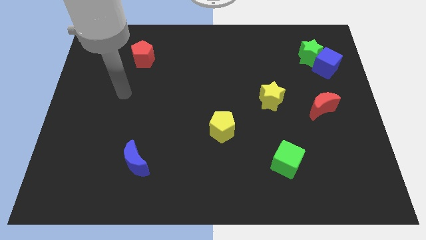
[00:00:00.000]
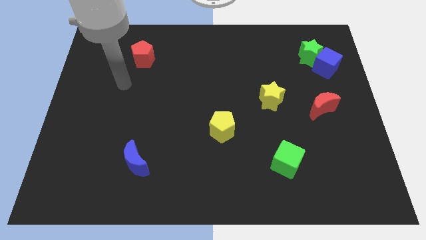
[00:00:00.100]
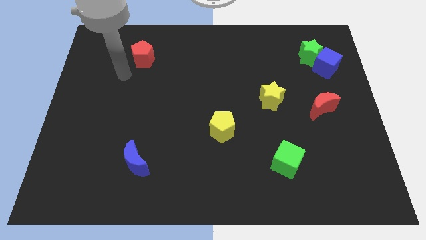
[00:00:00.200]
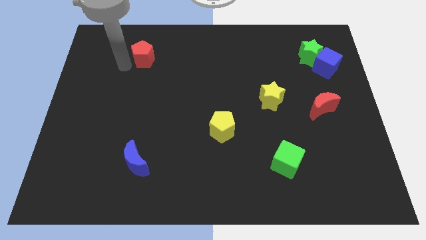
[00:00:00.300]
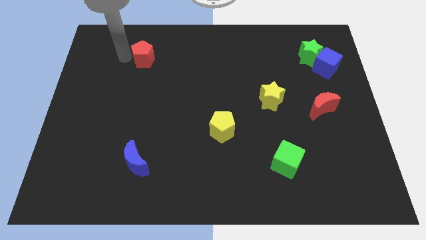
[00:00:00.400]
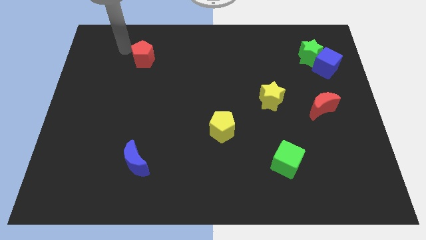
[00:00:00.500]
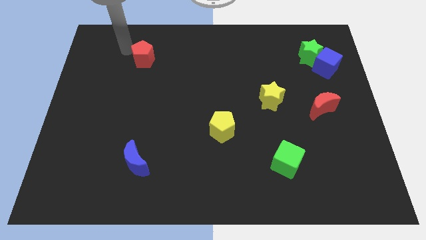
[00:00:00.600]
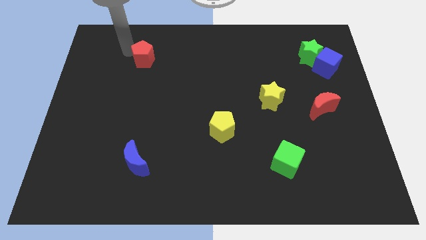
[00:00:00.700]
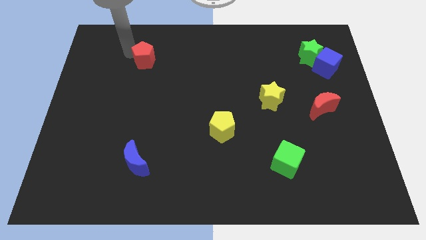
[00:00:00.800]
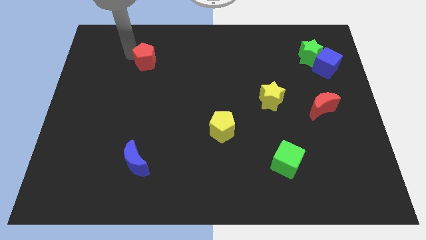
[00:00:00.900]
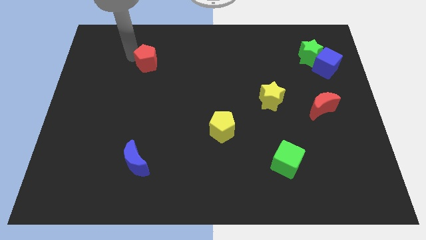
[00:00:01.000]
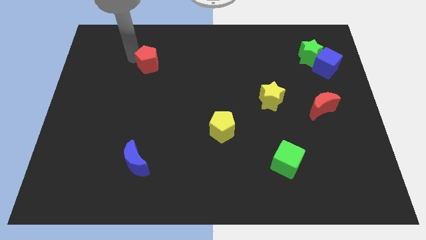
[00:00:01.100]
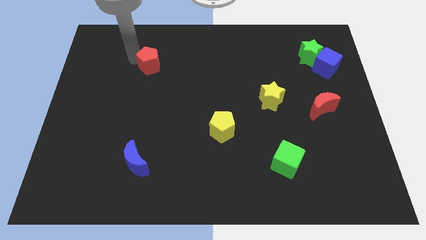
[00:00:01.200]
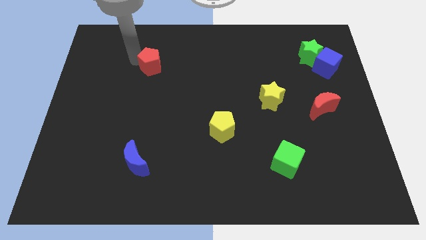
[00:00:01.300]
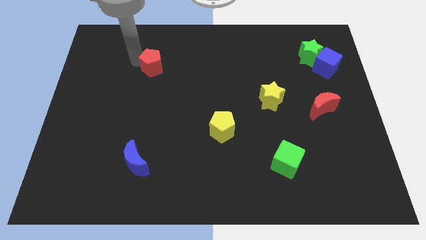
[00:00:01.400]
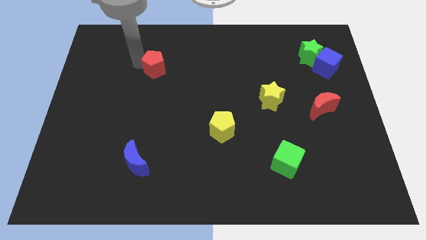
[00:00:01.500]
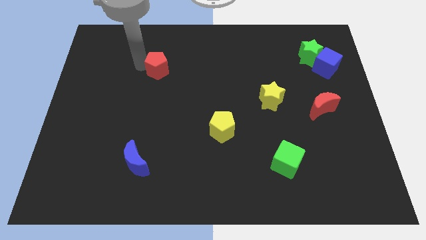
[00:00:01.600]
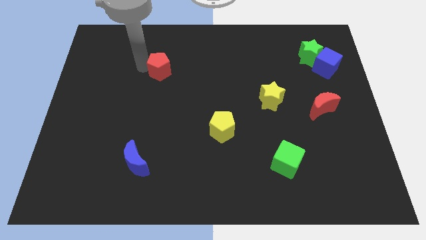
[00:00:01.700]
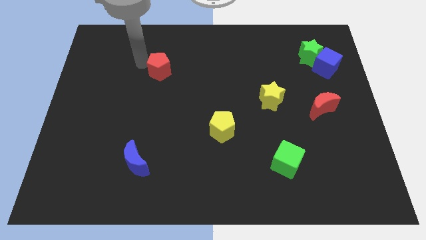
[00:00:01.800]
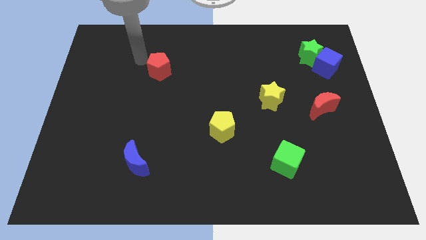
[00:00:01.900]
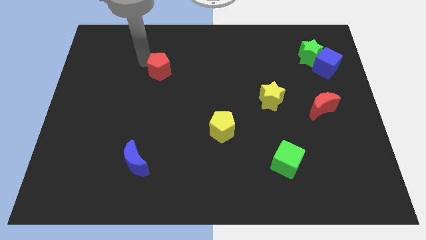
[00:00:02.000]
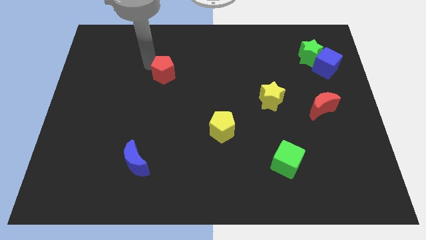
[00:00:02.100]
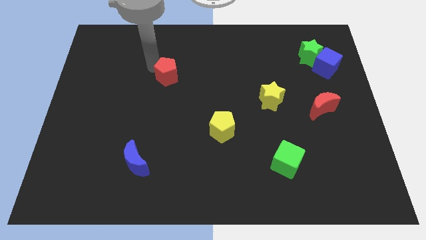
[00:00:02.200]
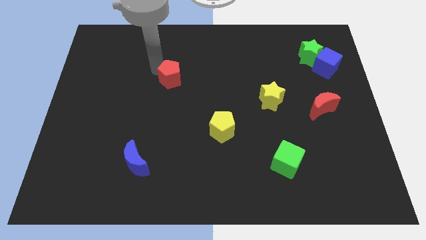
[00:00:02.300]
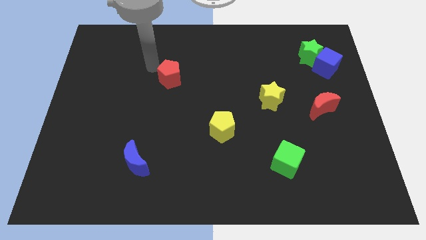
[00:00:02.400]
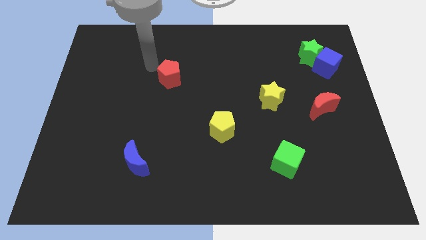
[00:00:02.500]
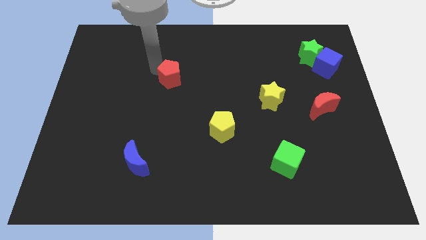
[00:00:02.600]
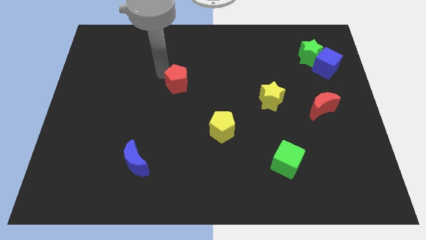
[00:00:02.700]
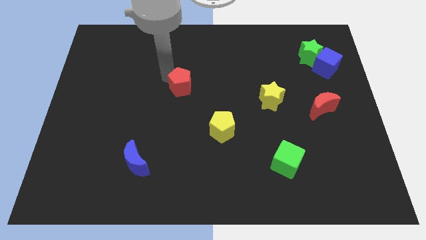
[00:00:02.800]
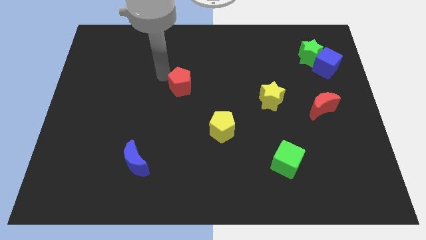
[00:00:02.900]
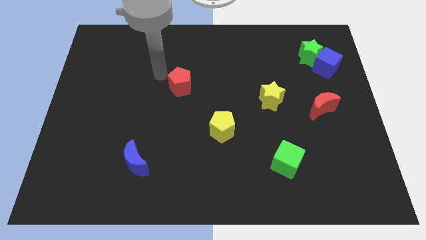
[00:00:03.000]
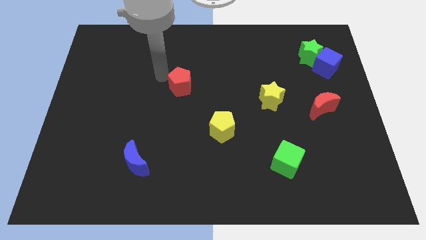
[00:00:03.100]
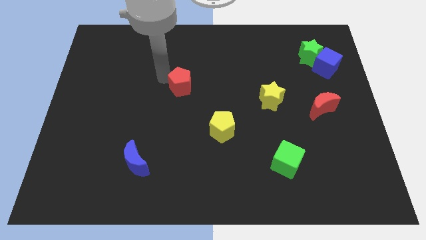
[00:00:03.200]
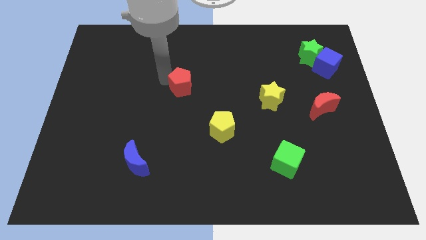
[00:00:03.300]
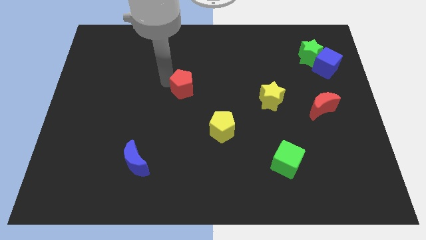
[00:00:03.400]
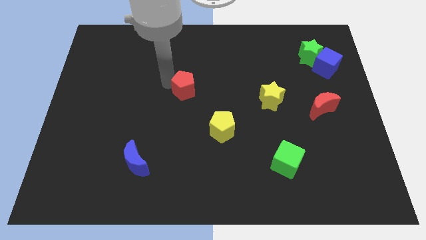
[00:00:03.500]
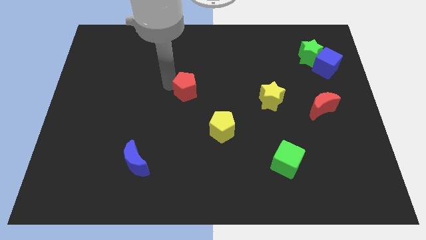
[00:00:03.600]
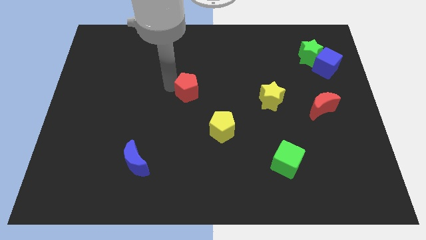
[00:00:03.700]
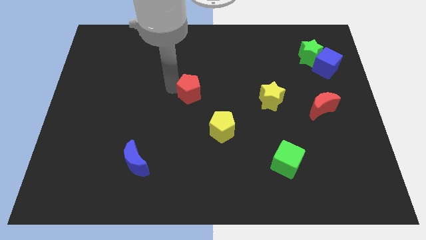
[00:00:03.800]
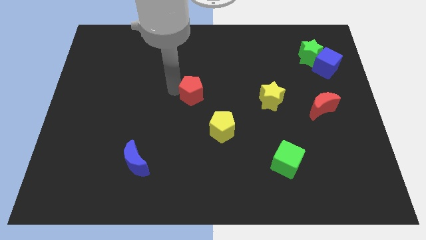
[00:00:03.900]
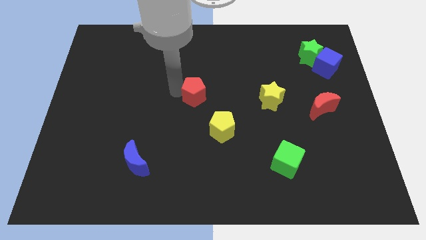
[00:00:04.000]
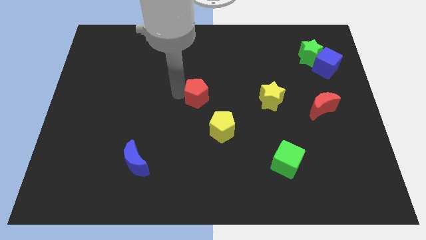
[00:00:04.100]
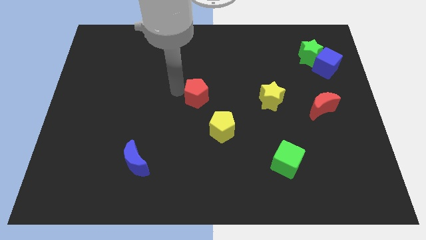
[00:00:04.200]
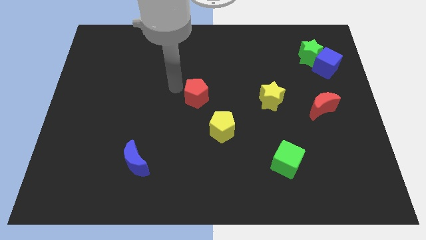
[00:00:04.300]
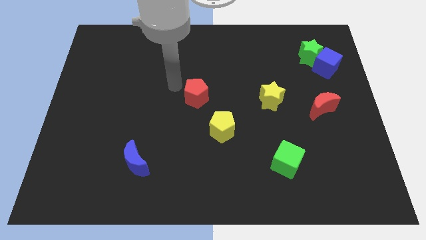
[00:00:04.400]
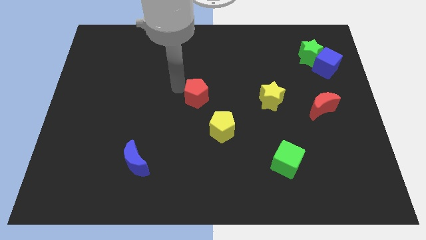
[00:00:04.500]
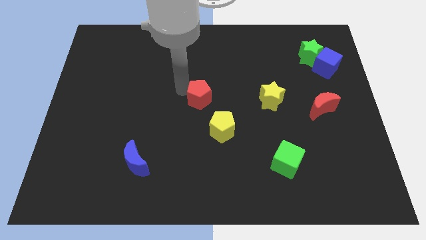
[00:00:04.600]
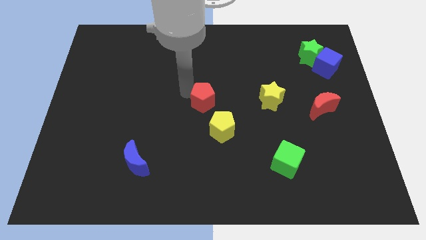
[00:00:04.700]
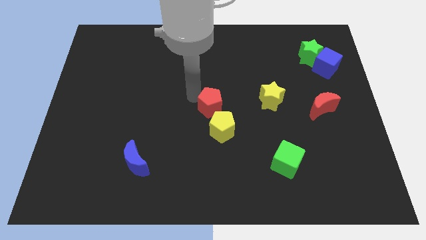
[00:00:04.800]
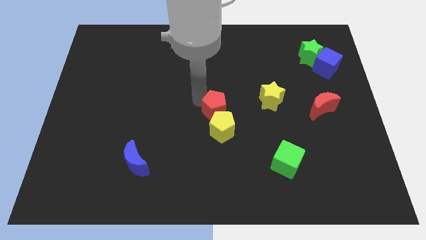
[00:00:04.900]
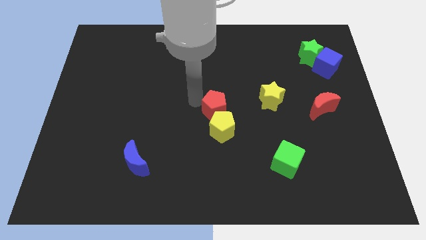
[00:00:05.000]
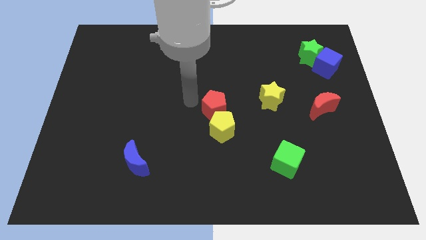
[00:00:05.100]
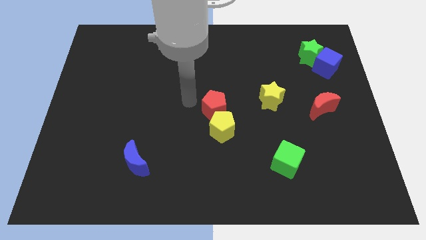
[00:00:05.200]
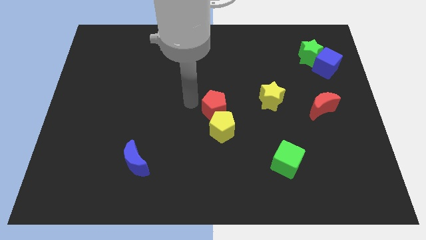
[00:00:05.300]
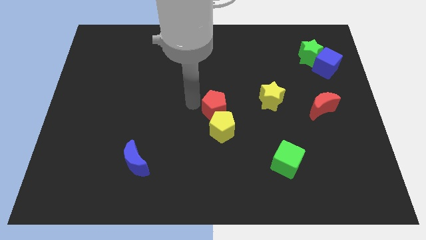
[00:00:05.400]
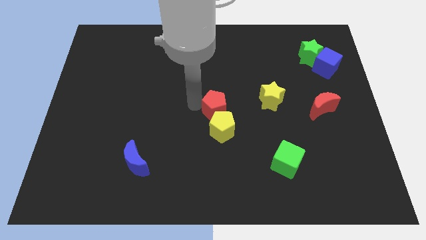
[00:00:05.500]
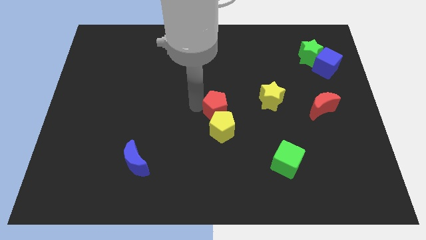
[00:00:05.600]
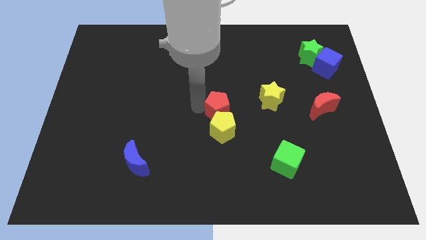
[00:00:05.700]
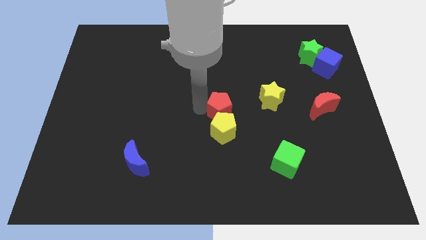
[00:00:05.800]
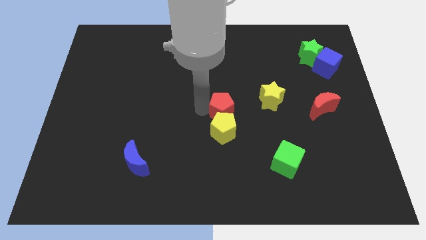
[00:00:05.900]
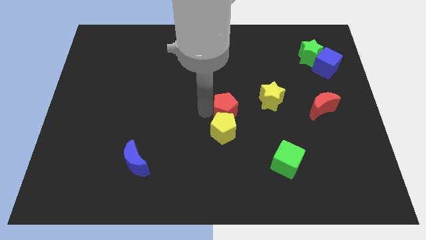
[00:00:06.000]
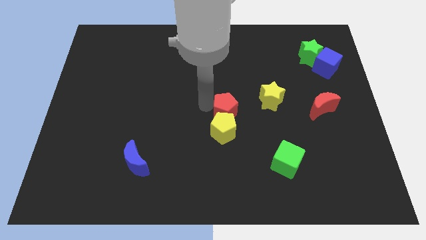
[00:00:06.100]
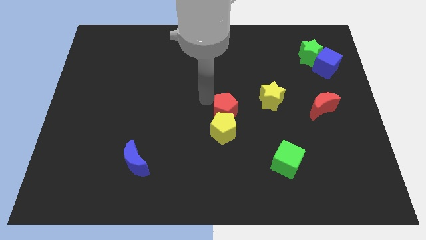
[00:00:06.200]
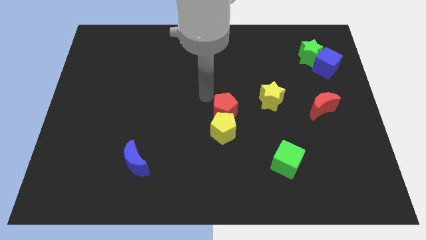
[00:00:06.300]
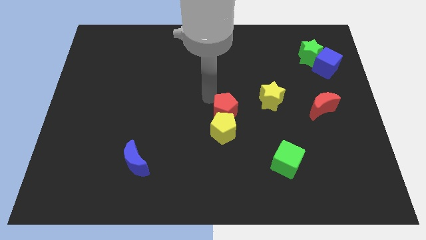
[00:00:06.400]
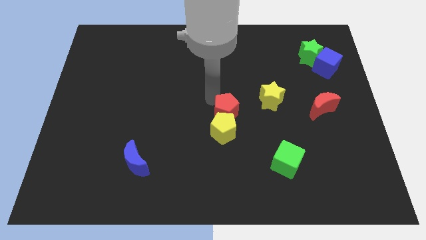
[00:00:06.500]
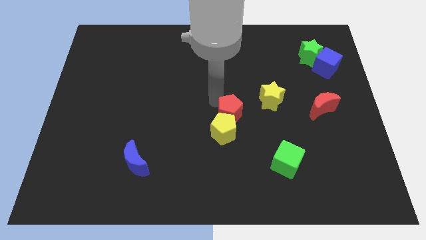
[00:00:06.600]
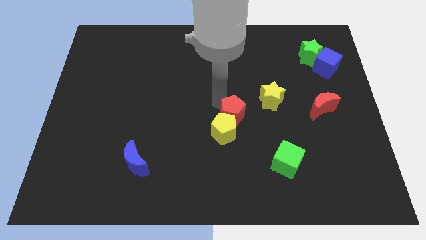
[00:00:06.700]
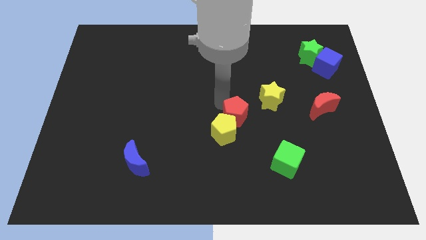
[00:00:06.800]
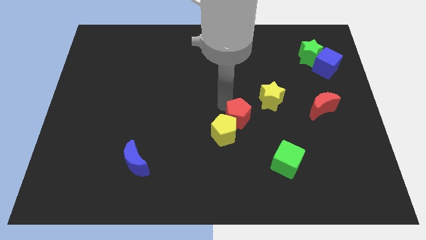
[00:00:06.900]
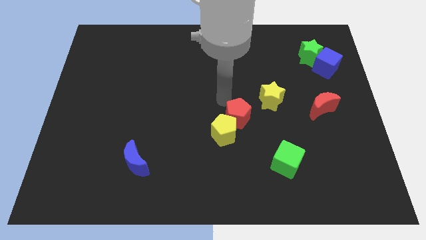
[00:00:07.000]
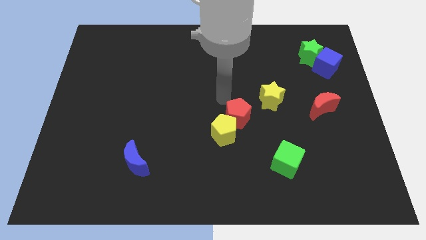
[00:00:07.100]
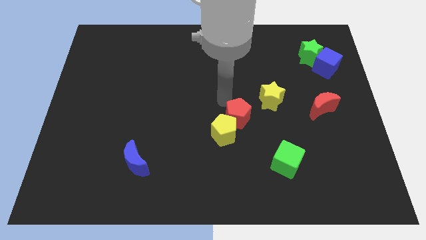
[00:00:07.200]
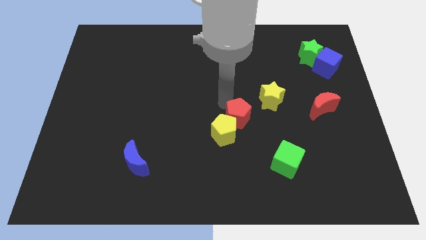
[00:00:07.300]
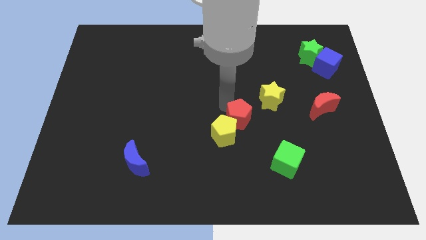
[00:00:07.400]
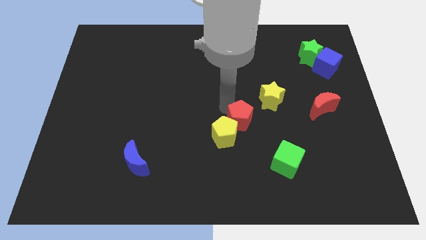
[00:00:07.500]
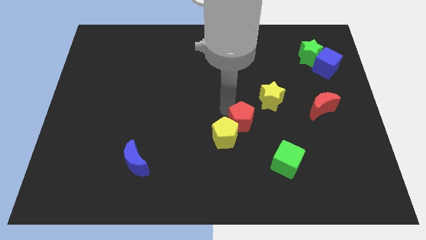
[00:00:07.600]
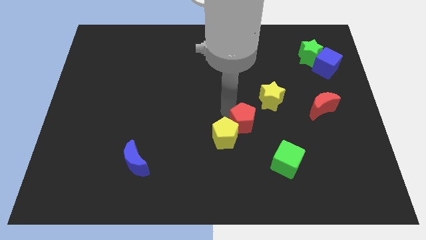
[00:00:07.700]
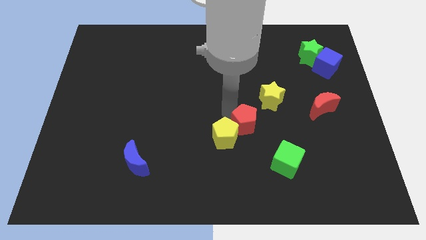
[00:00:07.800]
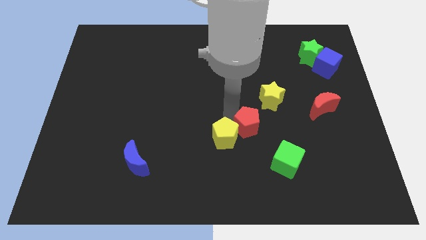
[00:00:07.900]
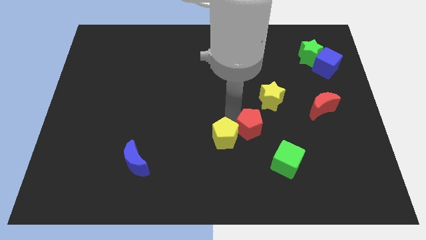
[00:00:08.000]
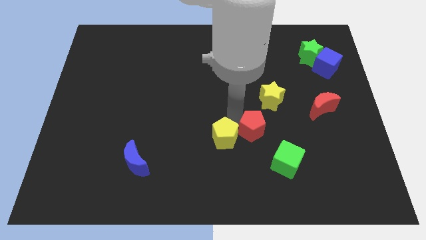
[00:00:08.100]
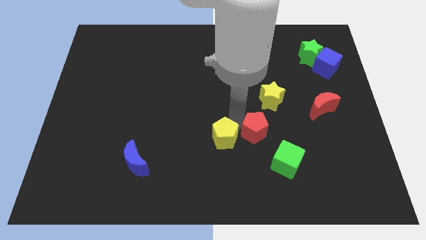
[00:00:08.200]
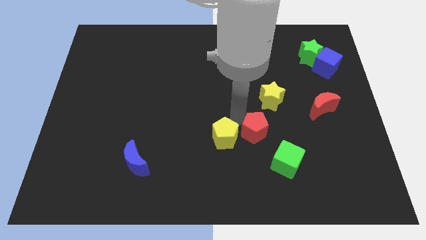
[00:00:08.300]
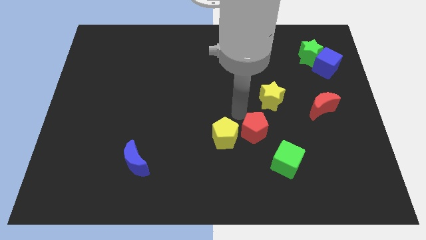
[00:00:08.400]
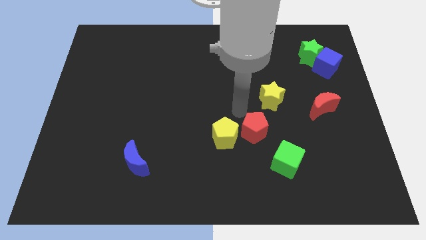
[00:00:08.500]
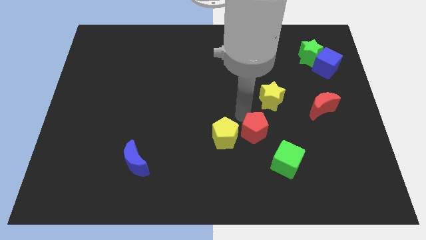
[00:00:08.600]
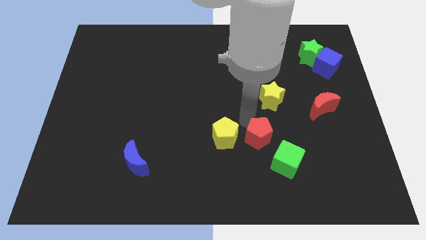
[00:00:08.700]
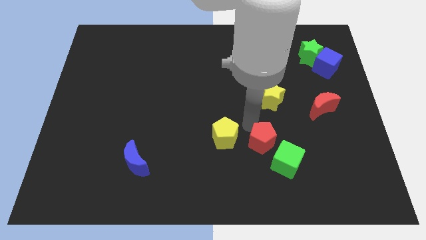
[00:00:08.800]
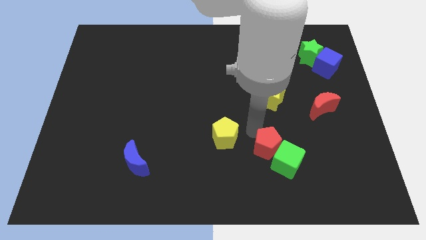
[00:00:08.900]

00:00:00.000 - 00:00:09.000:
move the red pentagon towards the green cube
